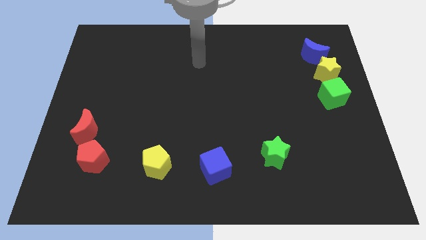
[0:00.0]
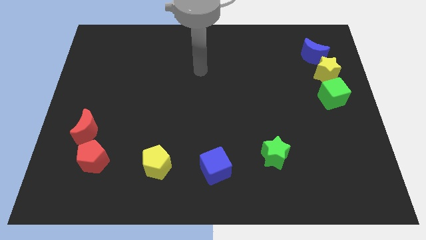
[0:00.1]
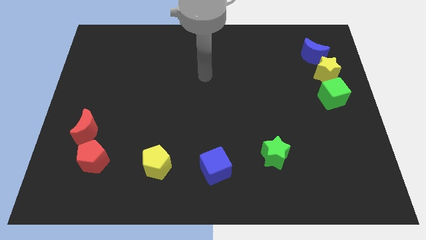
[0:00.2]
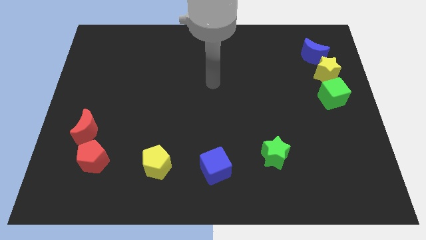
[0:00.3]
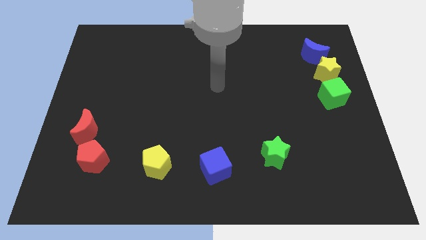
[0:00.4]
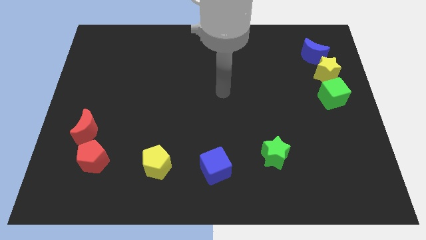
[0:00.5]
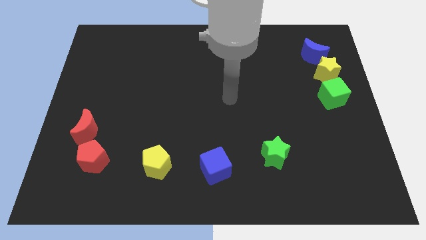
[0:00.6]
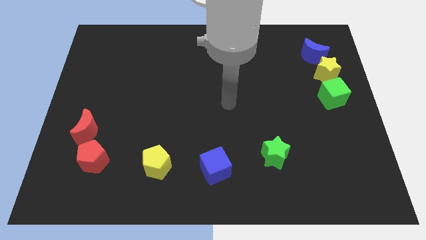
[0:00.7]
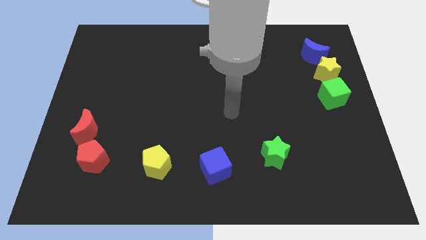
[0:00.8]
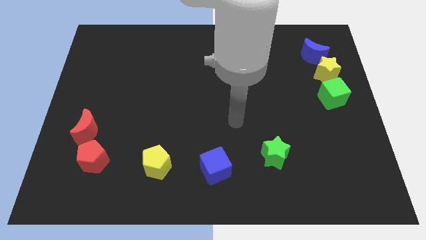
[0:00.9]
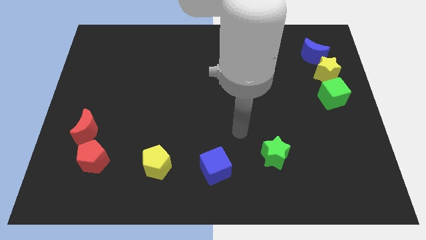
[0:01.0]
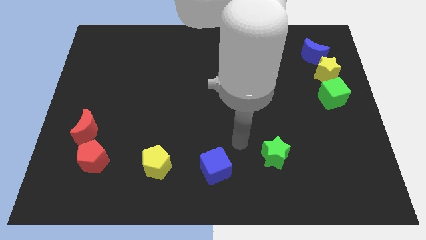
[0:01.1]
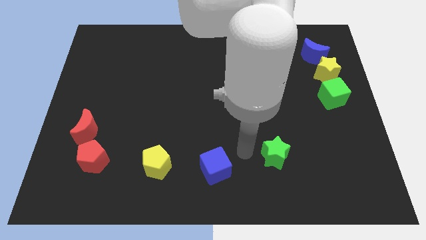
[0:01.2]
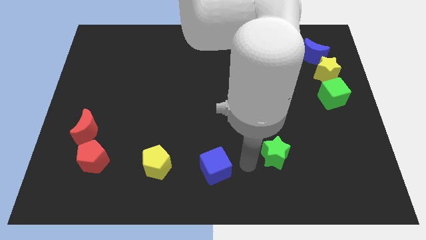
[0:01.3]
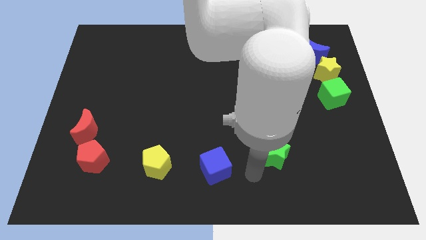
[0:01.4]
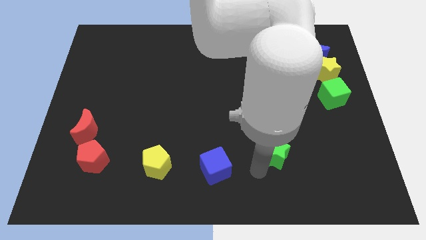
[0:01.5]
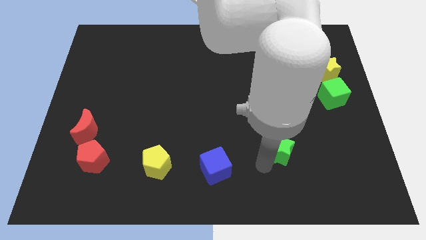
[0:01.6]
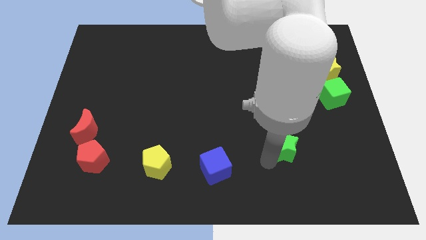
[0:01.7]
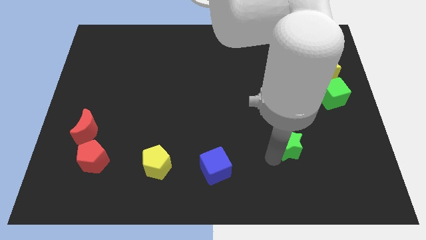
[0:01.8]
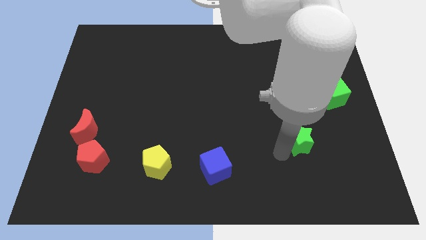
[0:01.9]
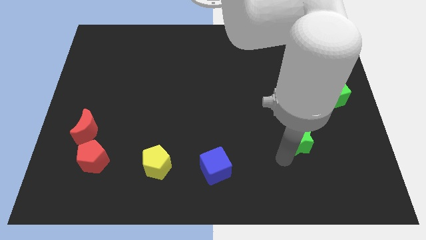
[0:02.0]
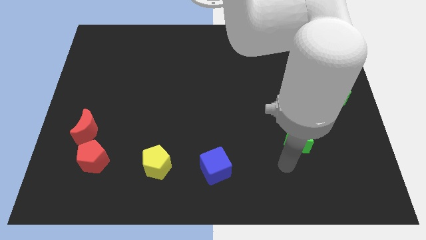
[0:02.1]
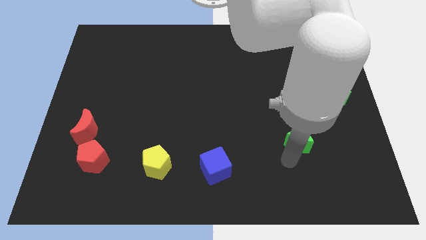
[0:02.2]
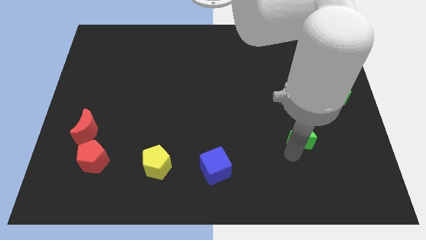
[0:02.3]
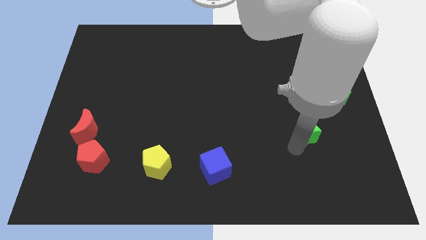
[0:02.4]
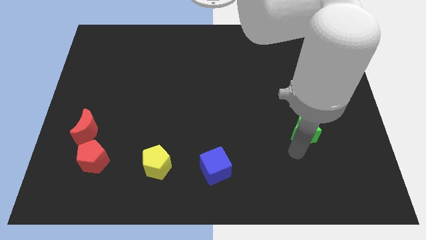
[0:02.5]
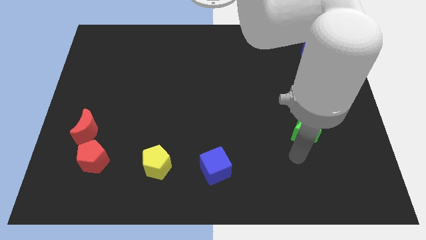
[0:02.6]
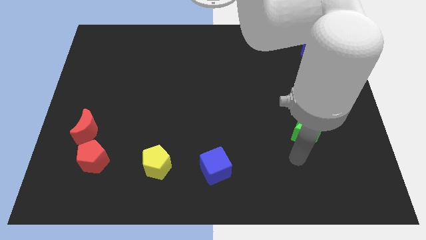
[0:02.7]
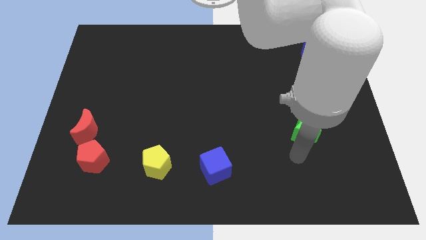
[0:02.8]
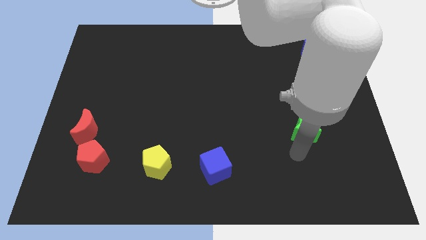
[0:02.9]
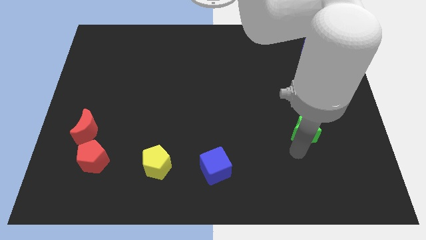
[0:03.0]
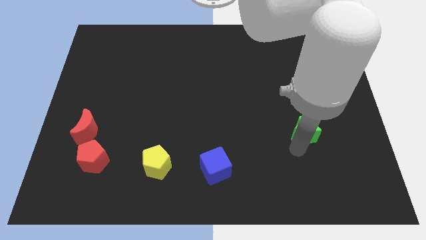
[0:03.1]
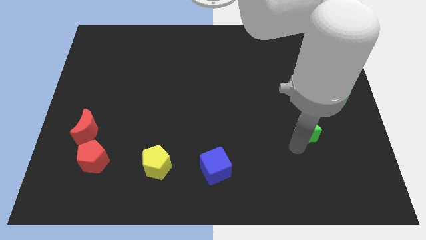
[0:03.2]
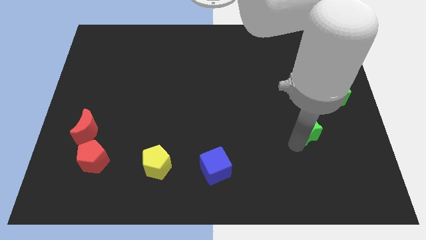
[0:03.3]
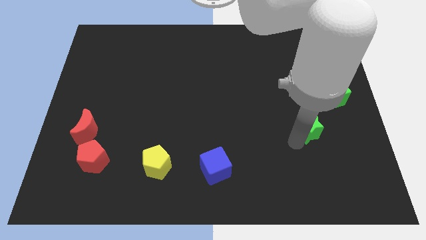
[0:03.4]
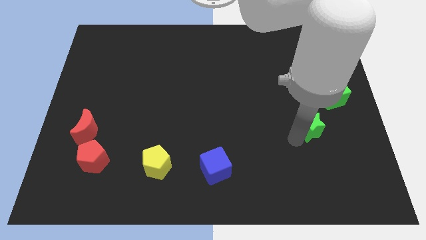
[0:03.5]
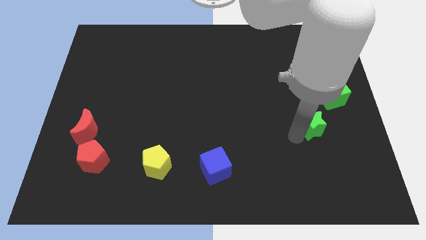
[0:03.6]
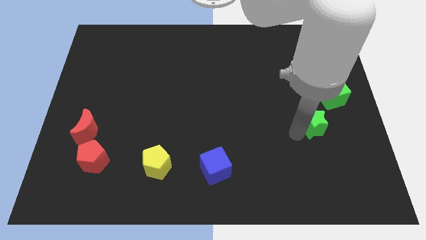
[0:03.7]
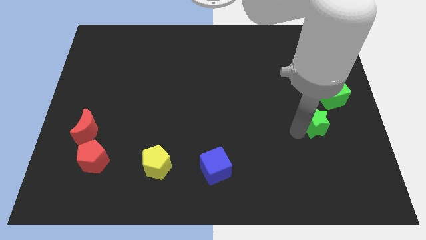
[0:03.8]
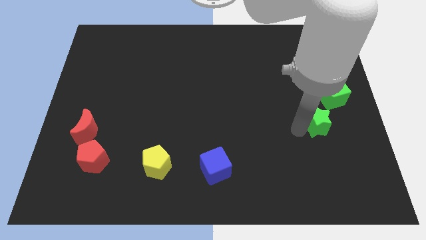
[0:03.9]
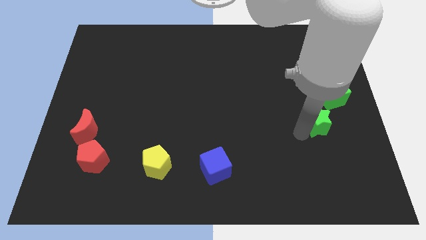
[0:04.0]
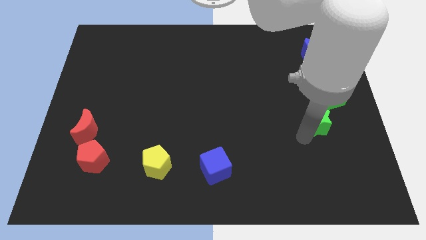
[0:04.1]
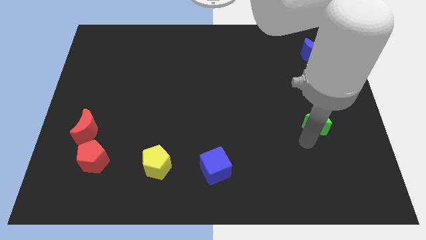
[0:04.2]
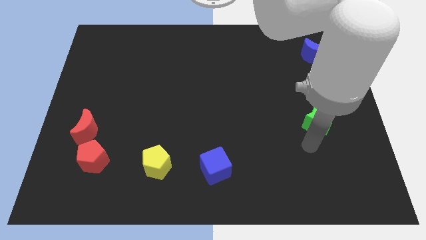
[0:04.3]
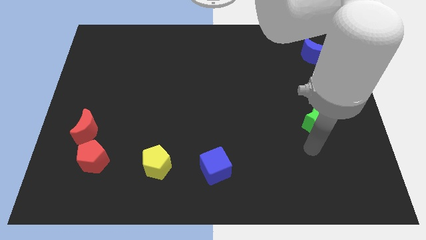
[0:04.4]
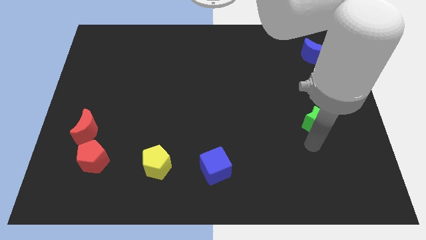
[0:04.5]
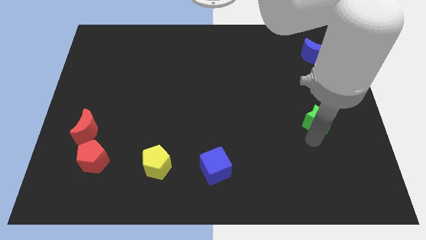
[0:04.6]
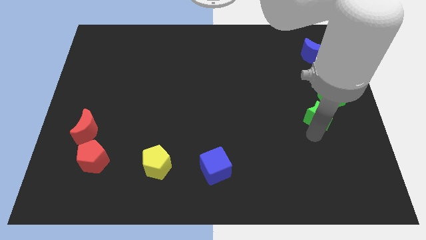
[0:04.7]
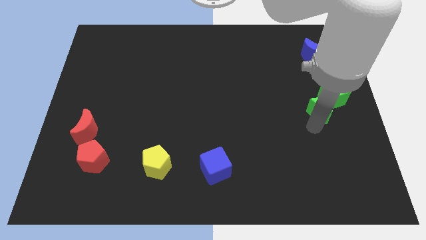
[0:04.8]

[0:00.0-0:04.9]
put the green star towards the green cube

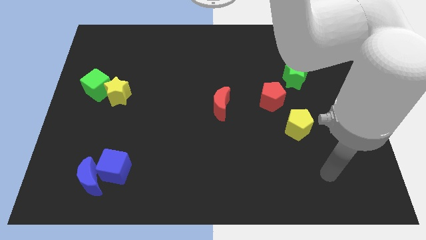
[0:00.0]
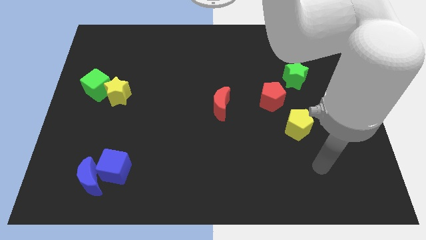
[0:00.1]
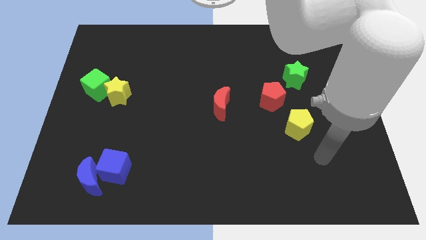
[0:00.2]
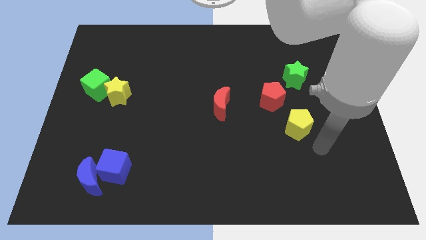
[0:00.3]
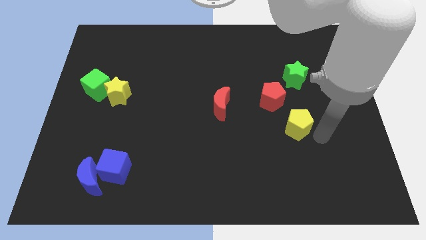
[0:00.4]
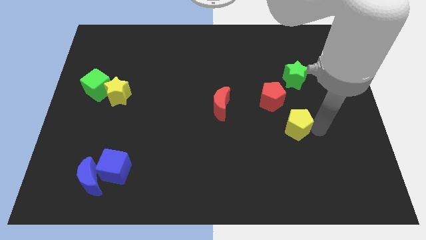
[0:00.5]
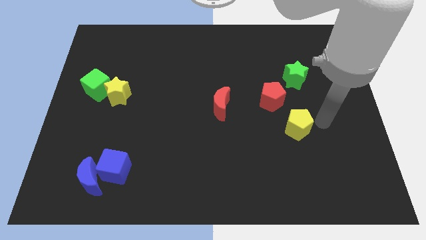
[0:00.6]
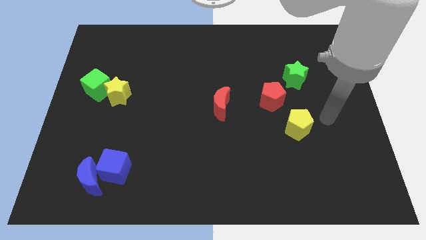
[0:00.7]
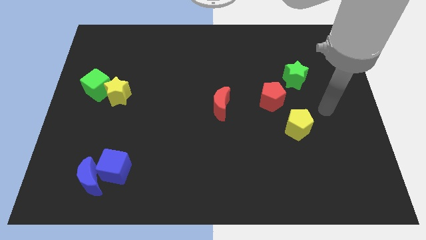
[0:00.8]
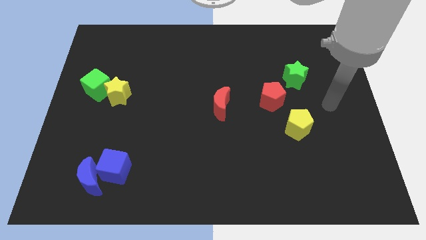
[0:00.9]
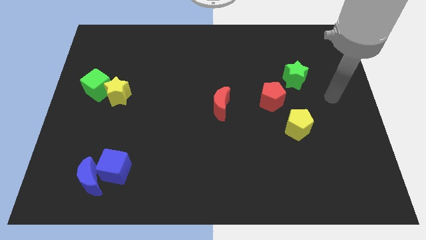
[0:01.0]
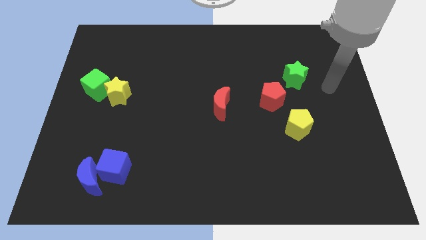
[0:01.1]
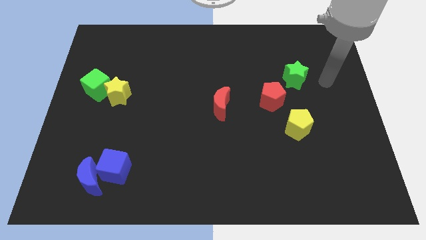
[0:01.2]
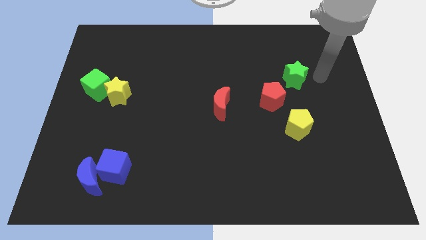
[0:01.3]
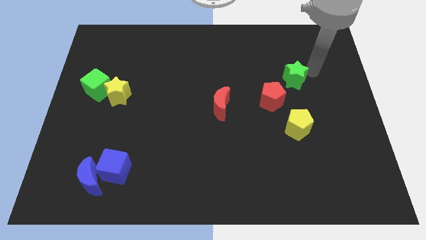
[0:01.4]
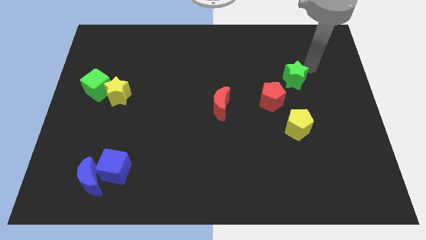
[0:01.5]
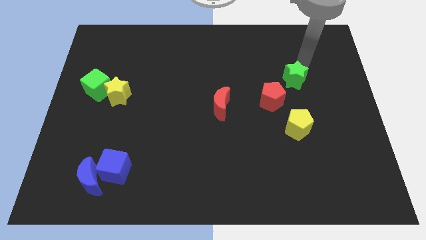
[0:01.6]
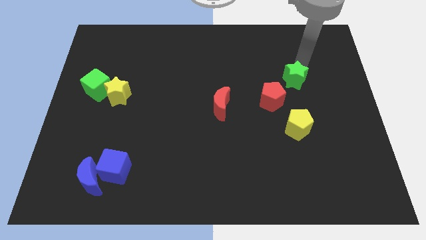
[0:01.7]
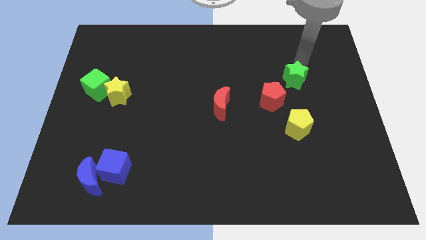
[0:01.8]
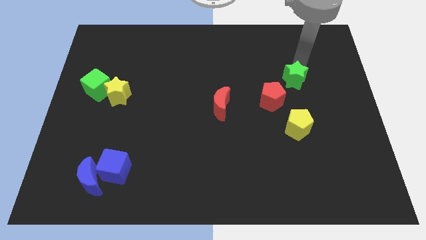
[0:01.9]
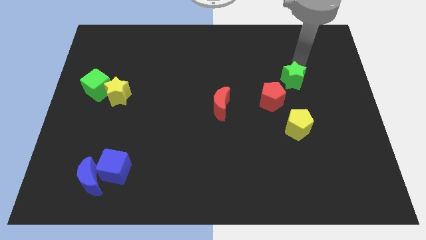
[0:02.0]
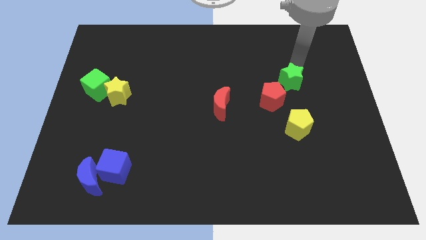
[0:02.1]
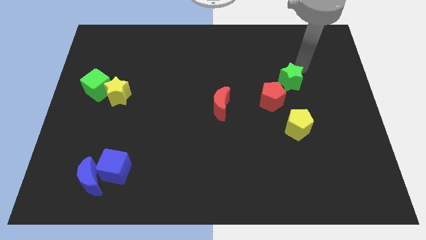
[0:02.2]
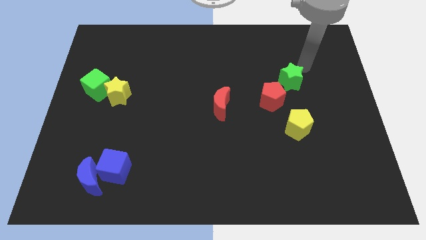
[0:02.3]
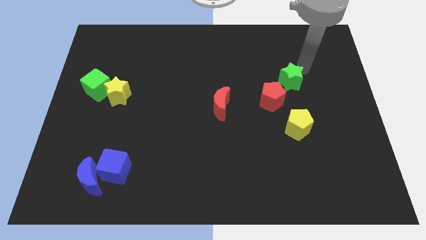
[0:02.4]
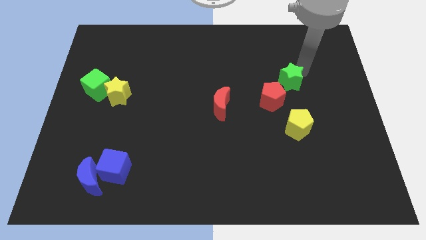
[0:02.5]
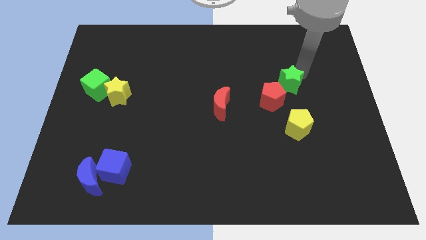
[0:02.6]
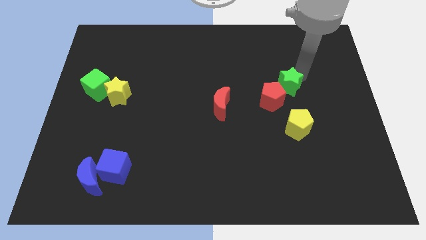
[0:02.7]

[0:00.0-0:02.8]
push the green star close to the red pentagon
